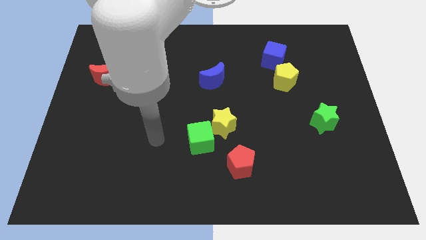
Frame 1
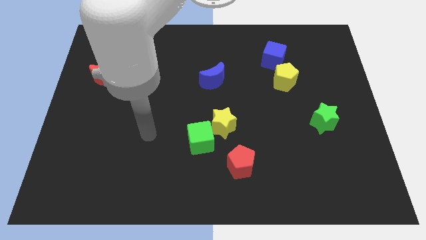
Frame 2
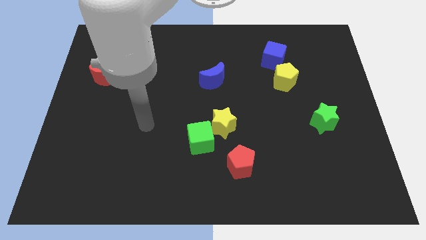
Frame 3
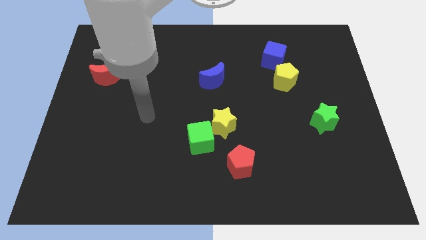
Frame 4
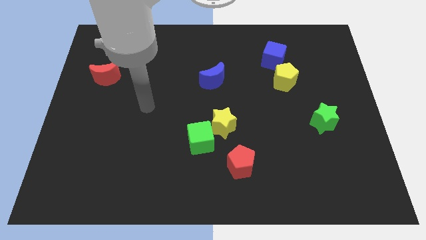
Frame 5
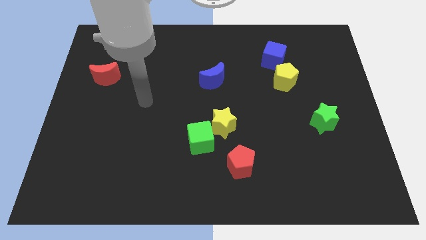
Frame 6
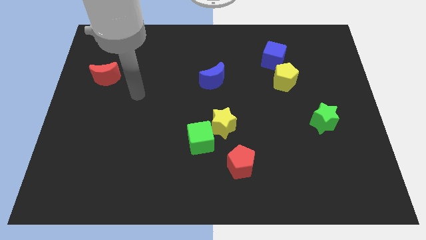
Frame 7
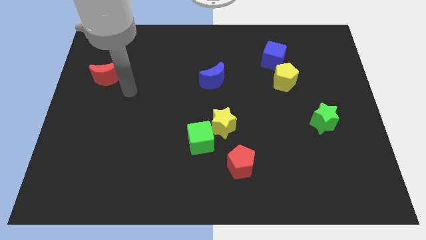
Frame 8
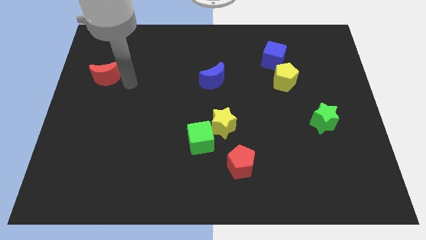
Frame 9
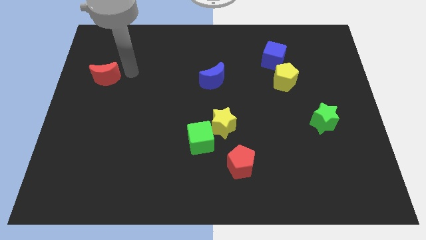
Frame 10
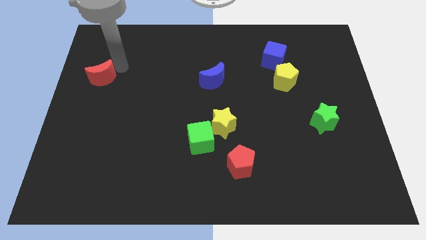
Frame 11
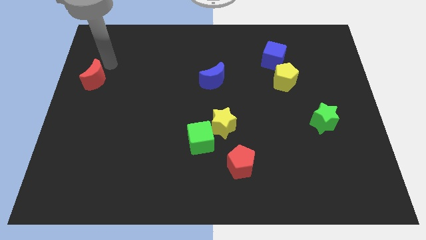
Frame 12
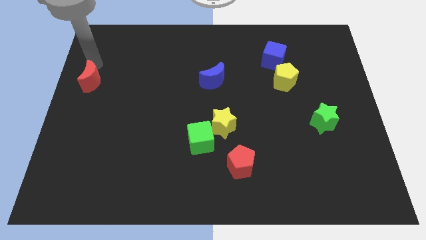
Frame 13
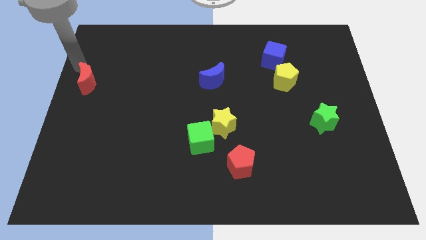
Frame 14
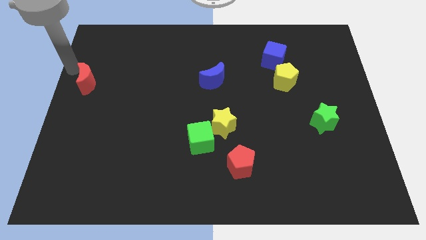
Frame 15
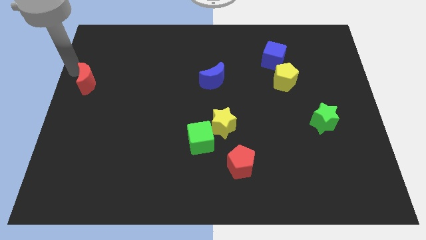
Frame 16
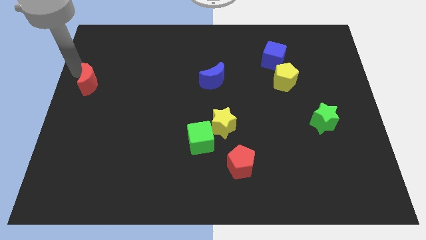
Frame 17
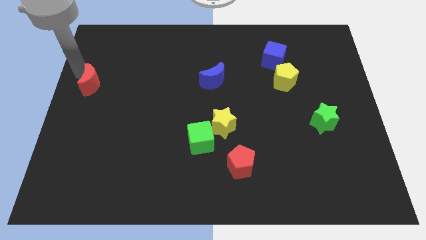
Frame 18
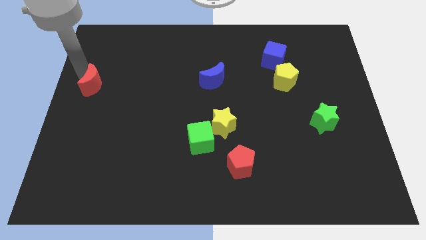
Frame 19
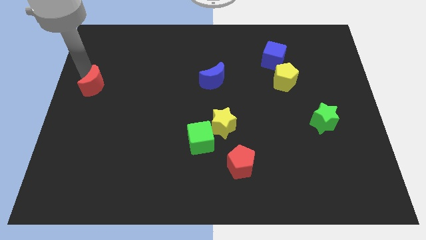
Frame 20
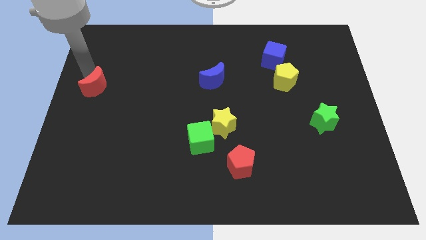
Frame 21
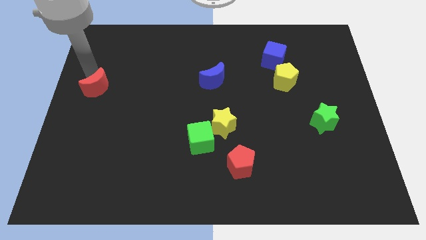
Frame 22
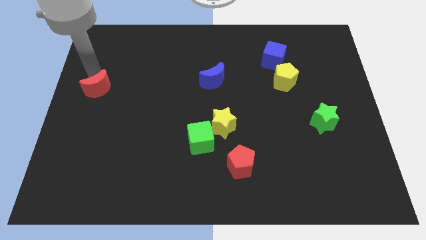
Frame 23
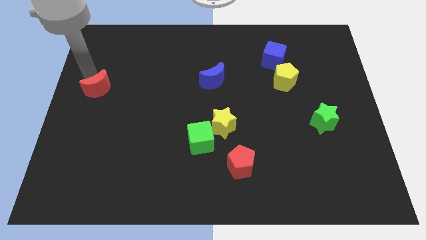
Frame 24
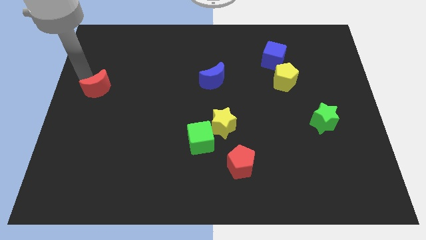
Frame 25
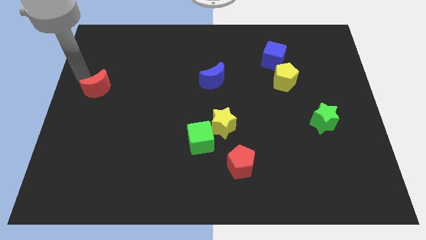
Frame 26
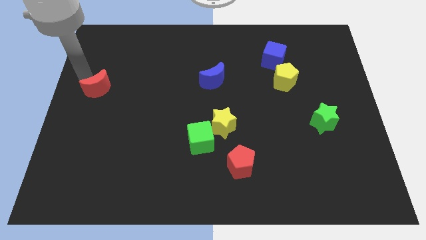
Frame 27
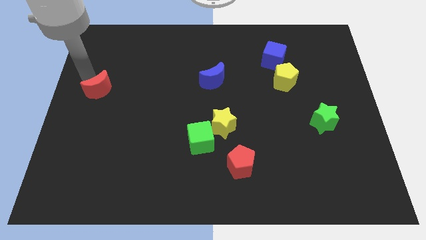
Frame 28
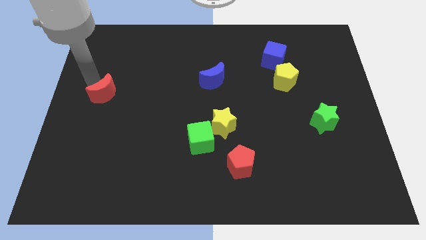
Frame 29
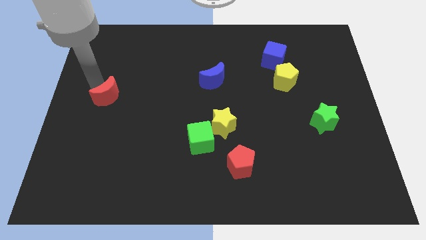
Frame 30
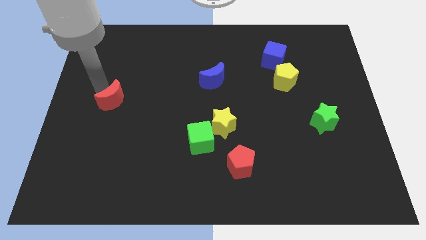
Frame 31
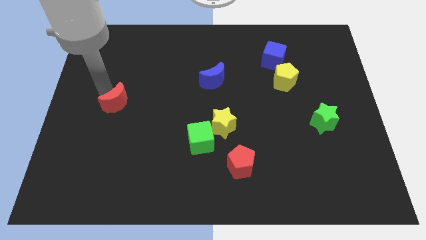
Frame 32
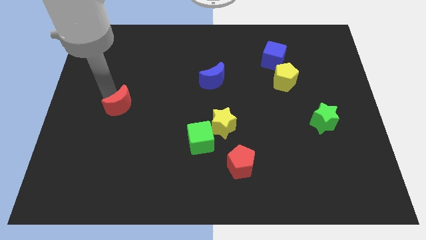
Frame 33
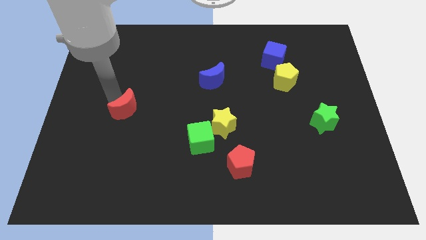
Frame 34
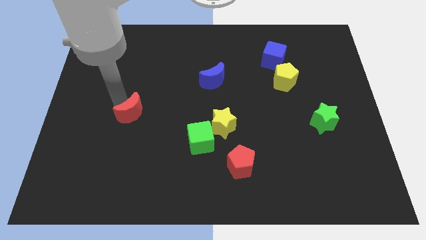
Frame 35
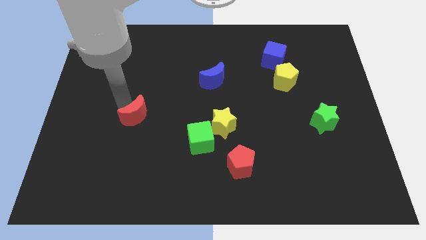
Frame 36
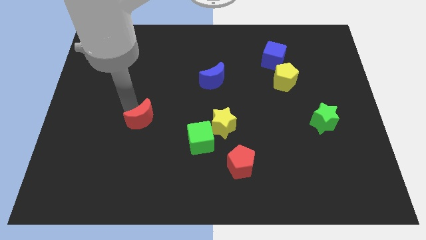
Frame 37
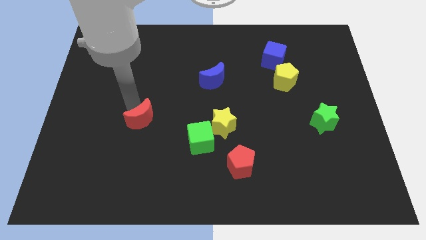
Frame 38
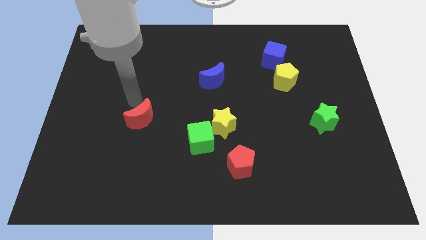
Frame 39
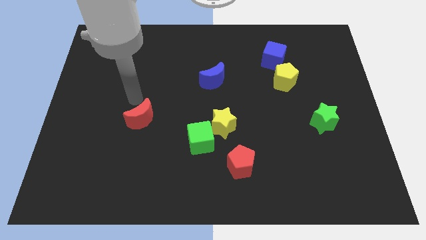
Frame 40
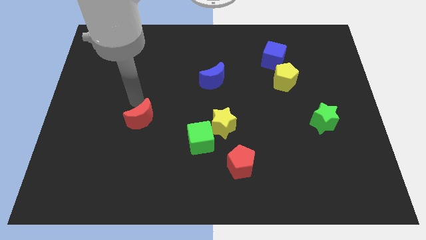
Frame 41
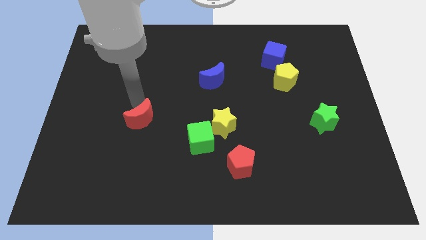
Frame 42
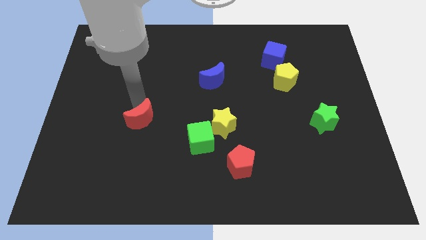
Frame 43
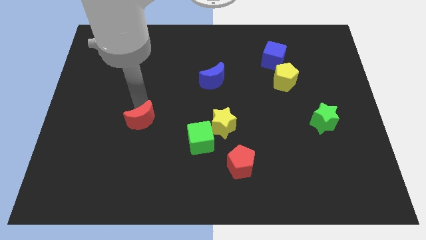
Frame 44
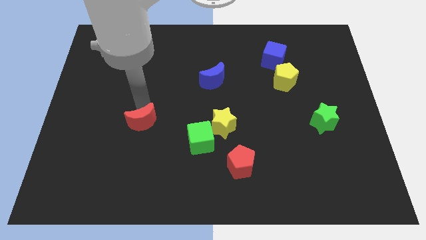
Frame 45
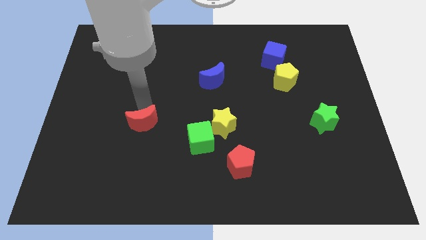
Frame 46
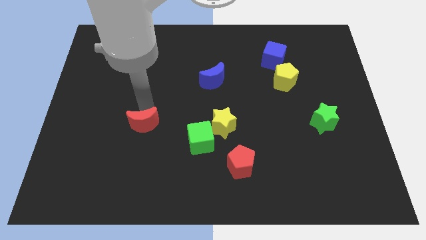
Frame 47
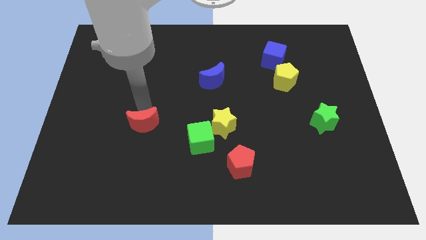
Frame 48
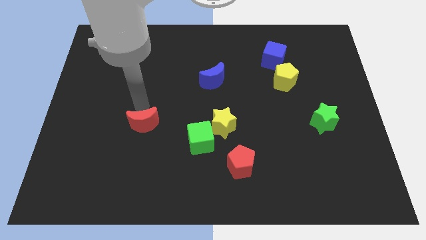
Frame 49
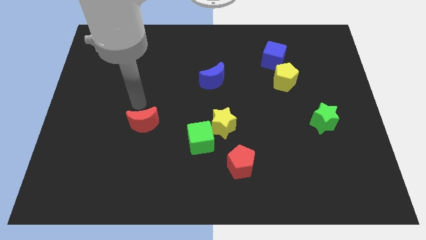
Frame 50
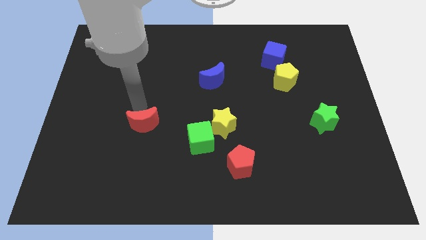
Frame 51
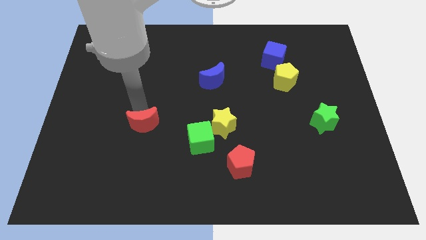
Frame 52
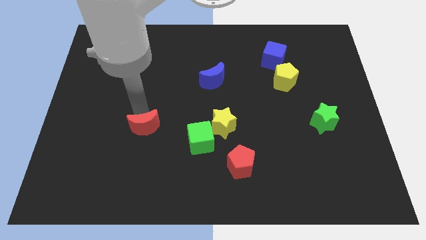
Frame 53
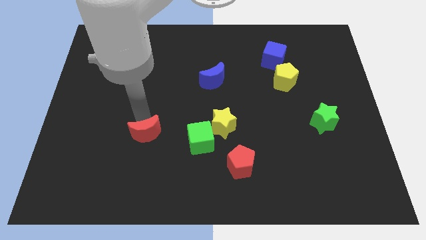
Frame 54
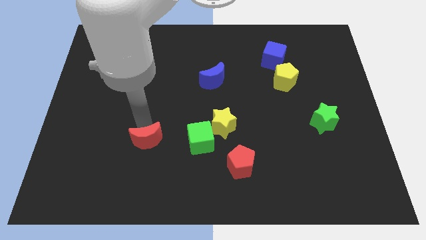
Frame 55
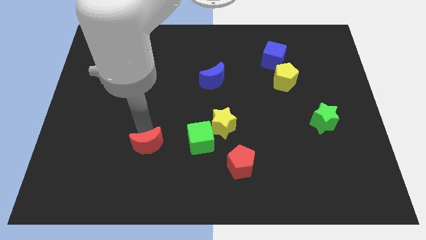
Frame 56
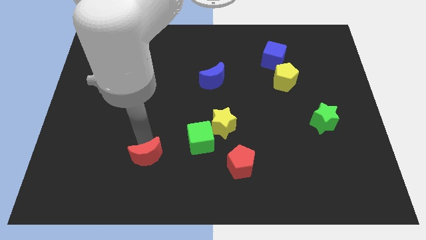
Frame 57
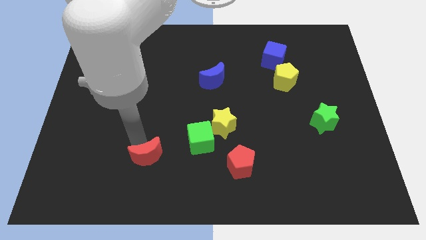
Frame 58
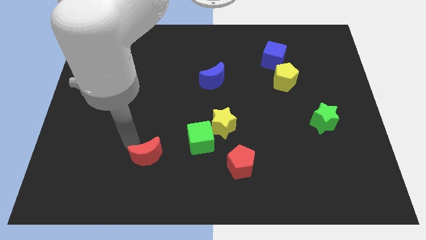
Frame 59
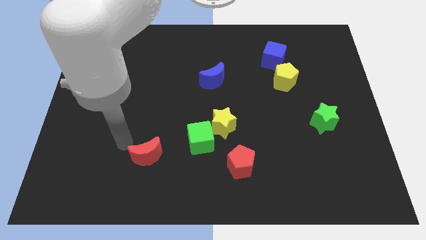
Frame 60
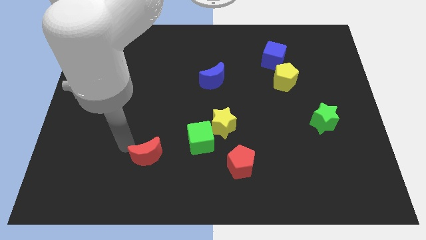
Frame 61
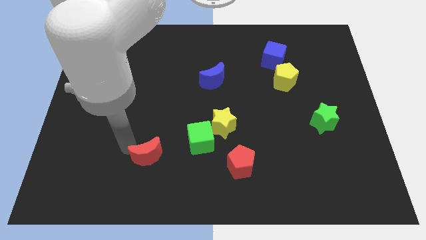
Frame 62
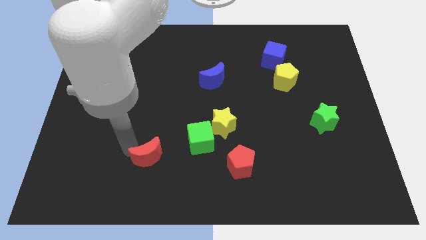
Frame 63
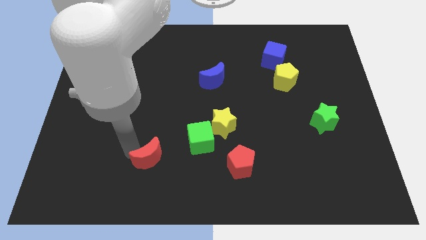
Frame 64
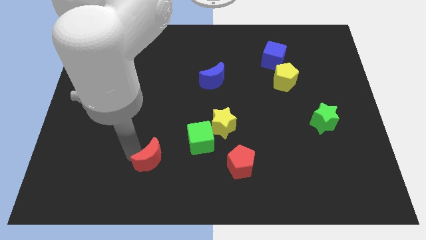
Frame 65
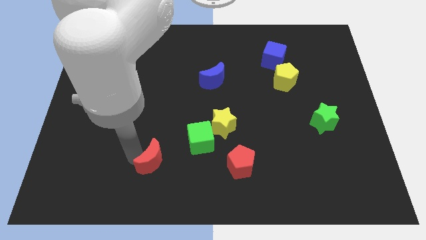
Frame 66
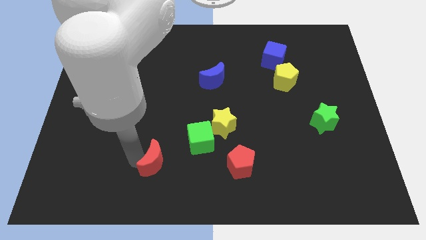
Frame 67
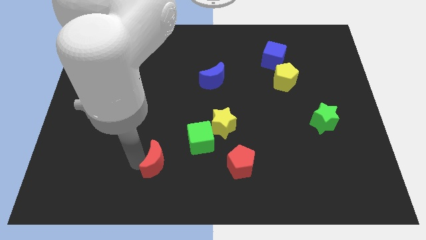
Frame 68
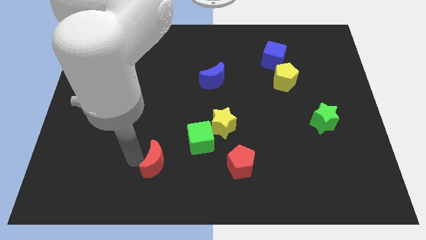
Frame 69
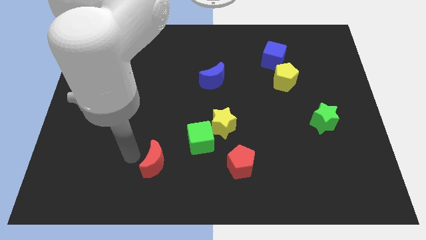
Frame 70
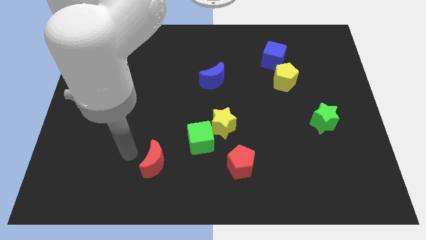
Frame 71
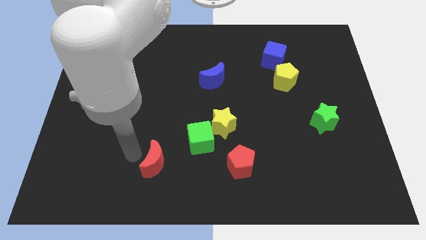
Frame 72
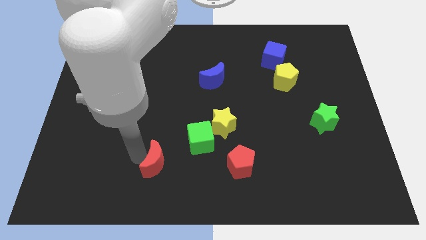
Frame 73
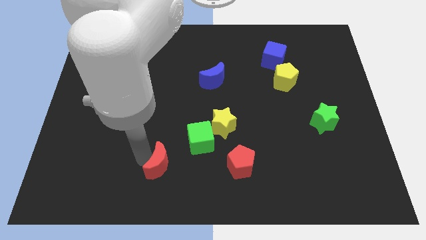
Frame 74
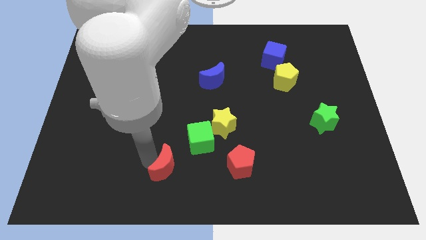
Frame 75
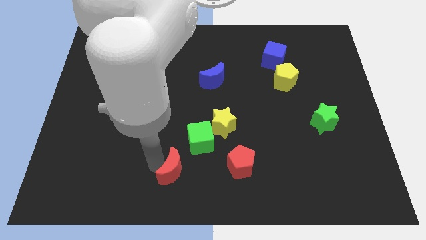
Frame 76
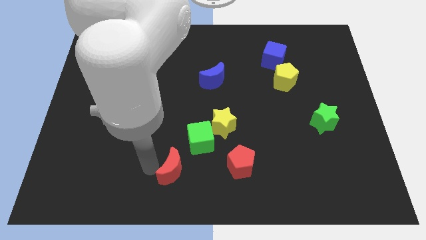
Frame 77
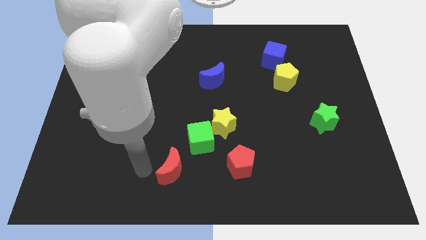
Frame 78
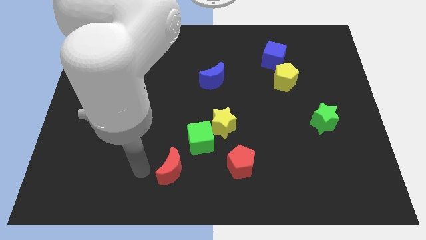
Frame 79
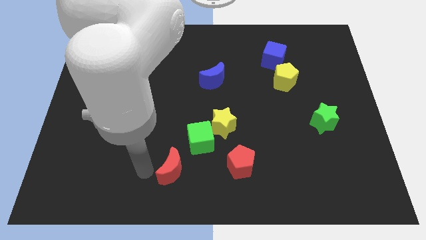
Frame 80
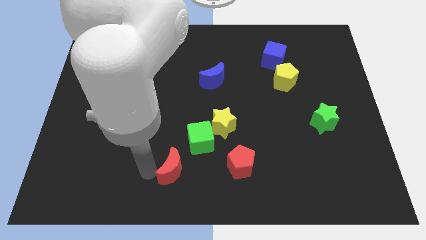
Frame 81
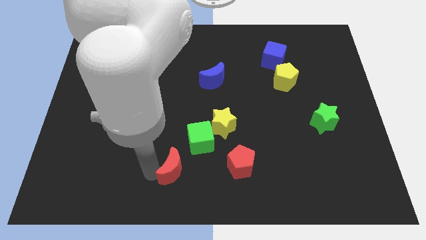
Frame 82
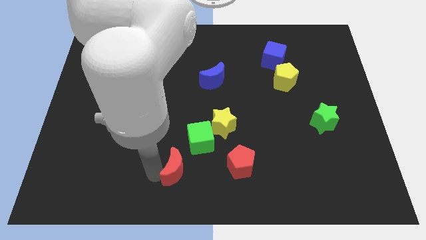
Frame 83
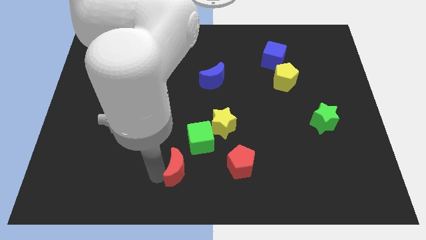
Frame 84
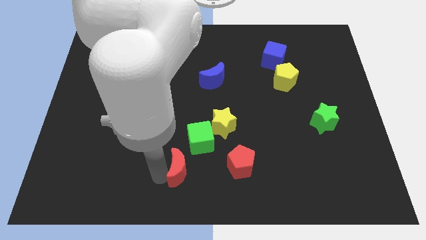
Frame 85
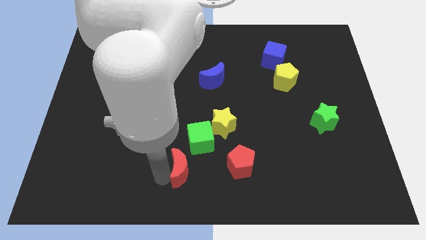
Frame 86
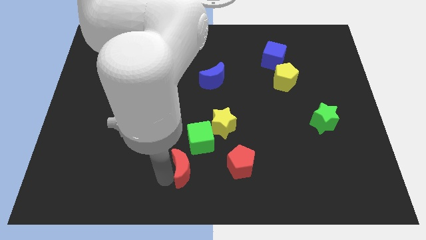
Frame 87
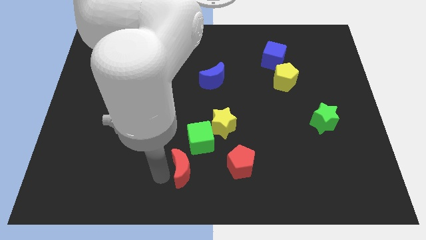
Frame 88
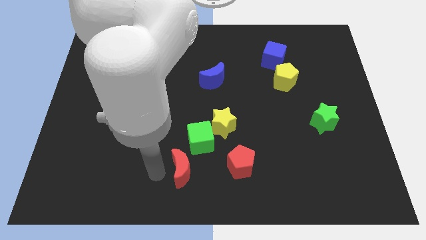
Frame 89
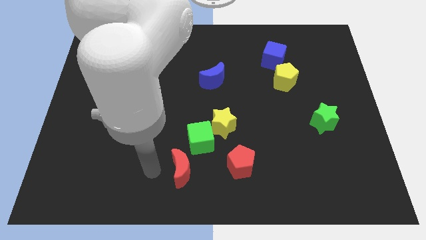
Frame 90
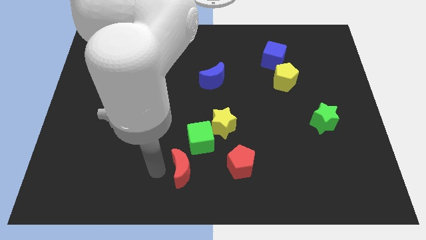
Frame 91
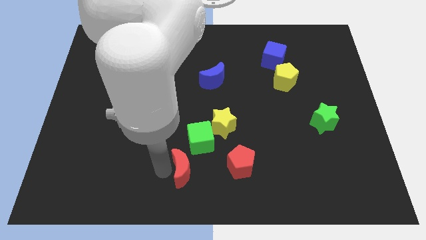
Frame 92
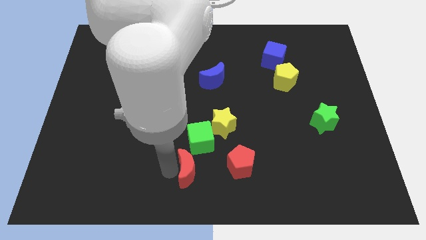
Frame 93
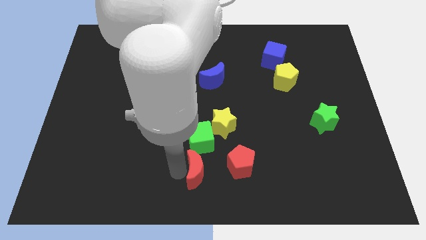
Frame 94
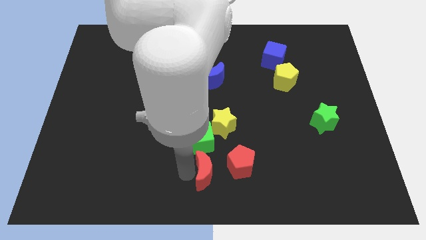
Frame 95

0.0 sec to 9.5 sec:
slide the red moon below the yellow star
